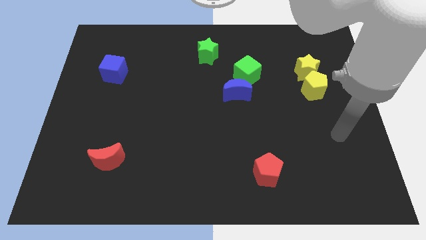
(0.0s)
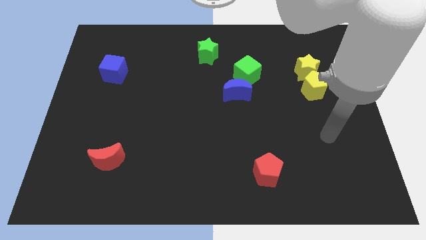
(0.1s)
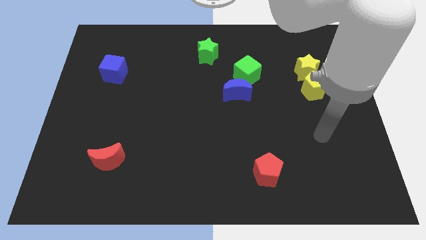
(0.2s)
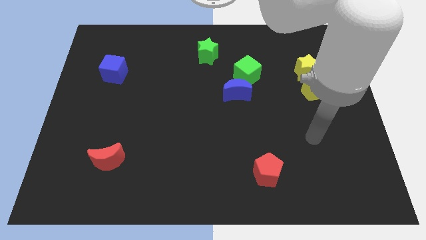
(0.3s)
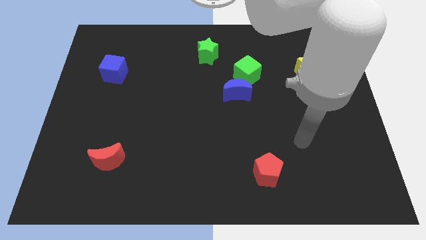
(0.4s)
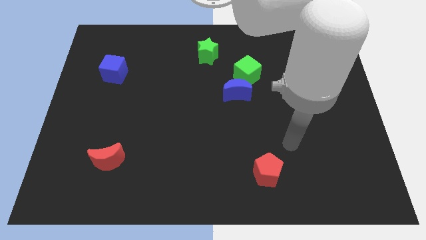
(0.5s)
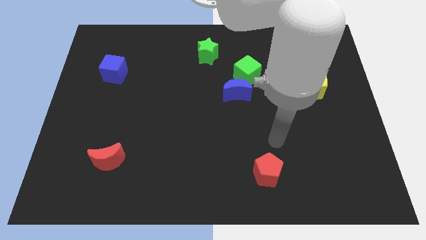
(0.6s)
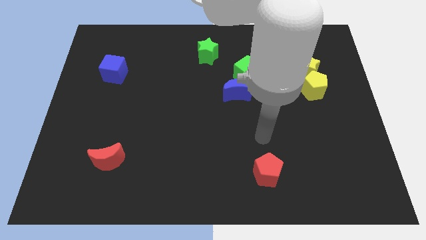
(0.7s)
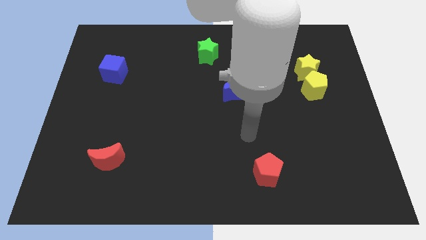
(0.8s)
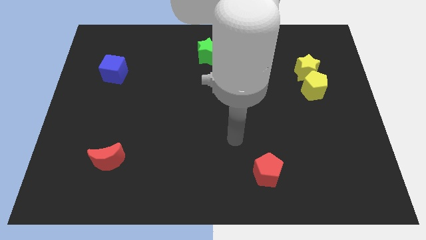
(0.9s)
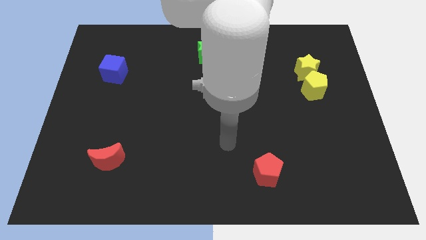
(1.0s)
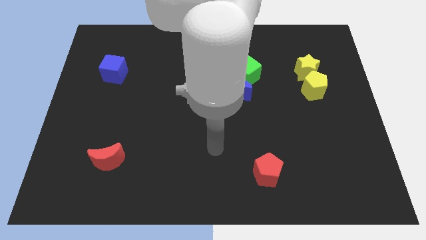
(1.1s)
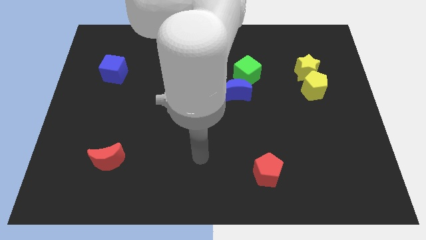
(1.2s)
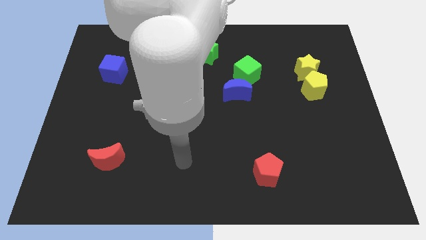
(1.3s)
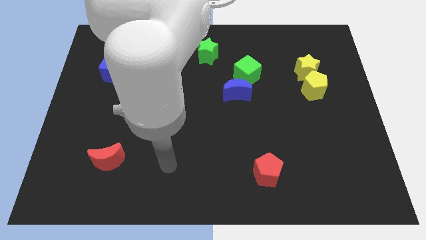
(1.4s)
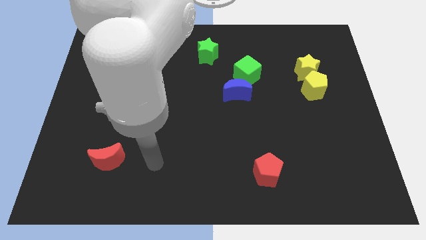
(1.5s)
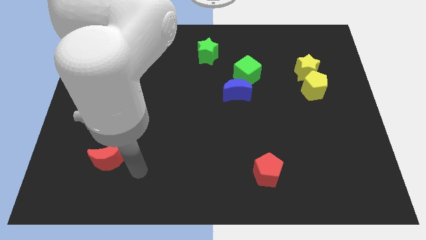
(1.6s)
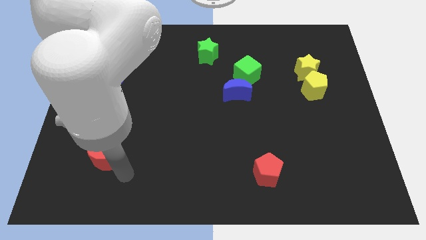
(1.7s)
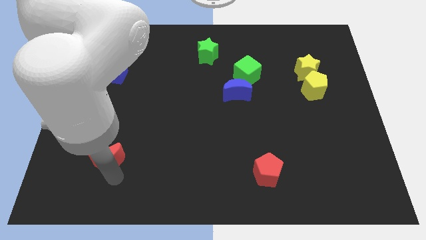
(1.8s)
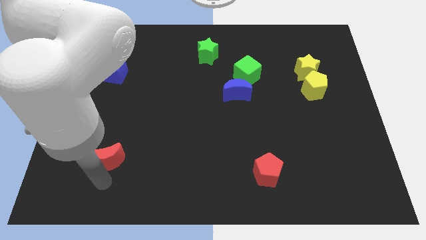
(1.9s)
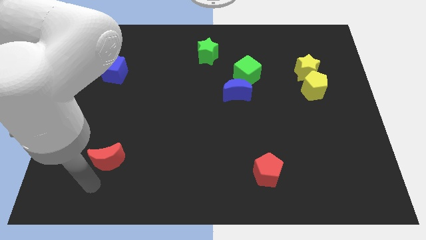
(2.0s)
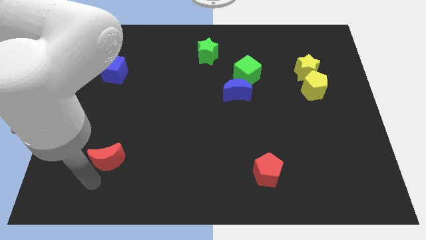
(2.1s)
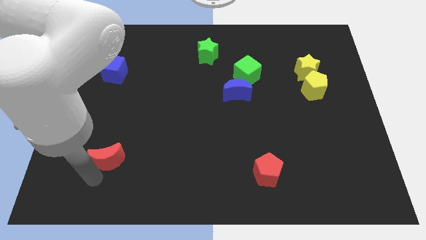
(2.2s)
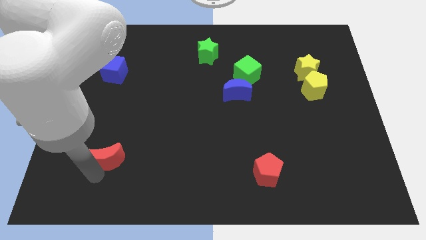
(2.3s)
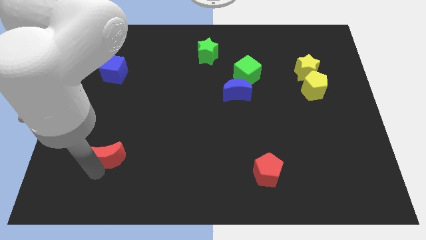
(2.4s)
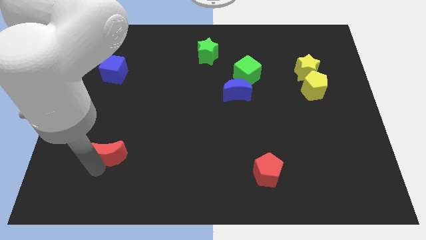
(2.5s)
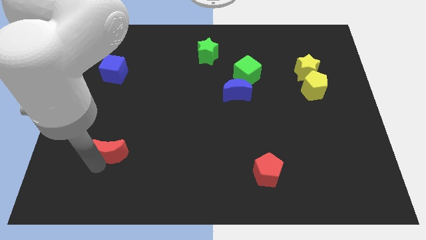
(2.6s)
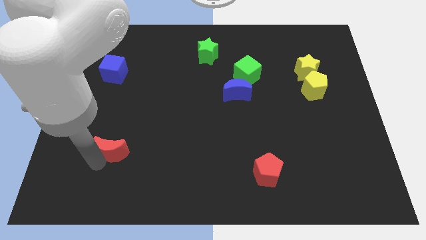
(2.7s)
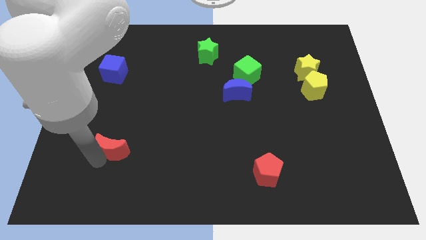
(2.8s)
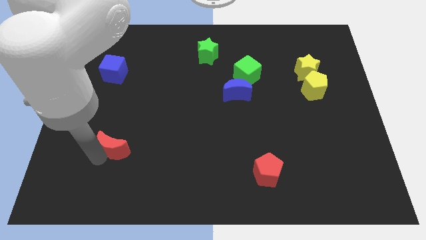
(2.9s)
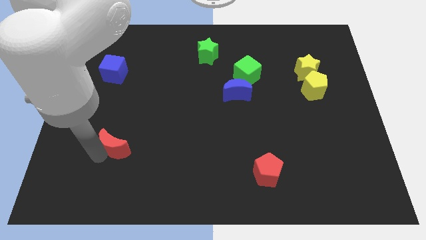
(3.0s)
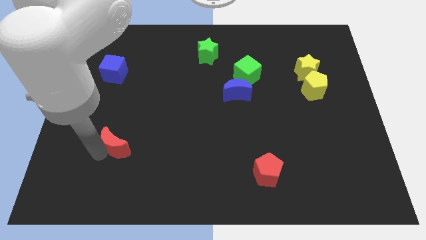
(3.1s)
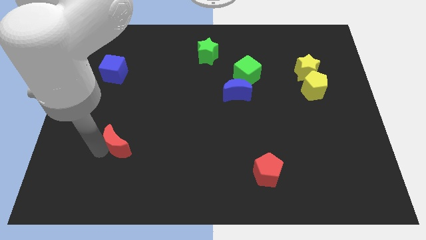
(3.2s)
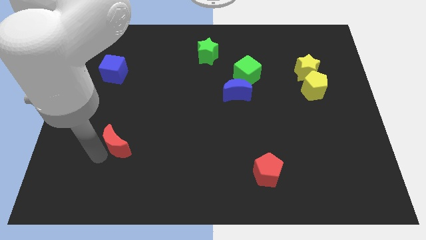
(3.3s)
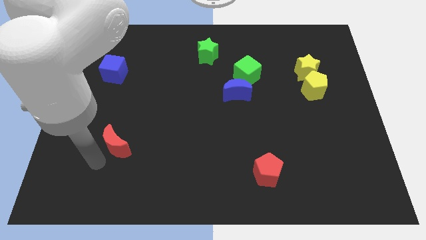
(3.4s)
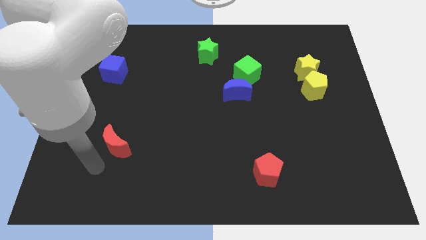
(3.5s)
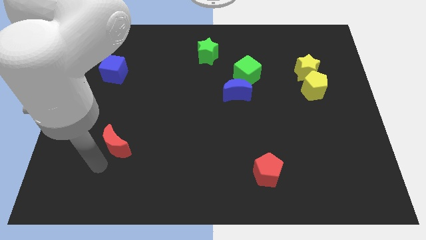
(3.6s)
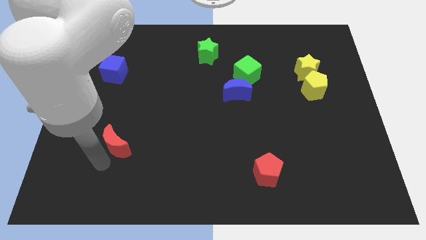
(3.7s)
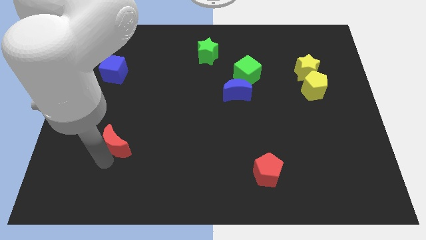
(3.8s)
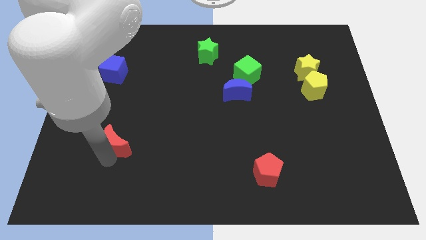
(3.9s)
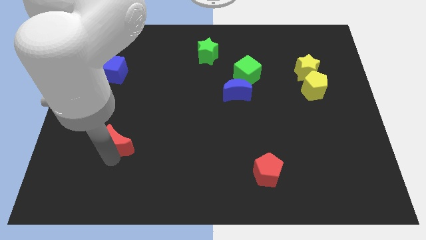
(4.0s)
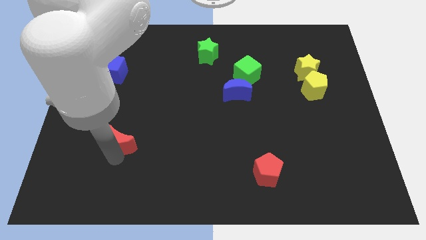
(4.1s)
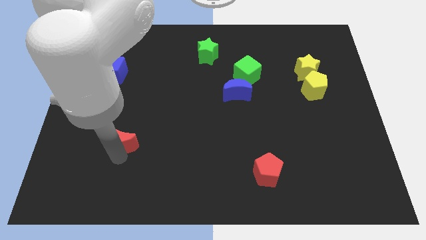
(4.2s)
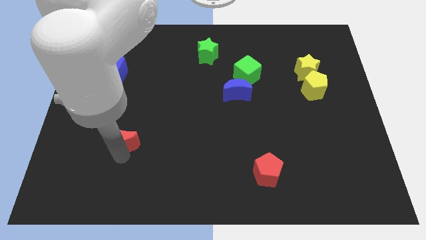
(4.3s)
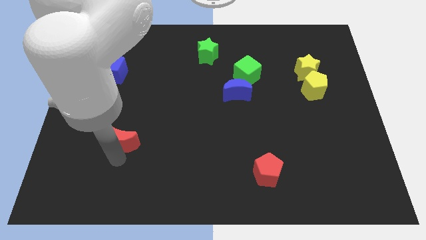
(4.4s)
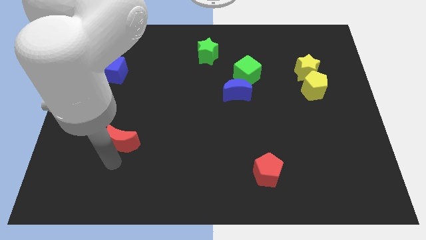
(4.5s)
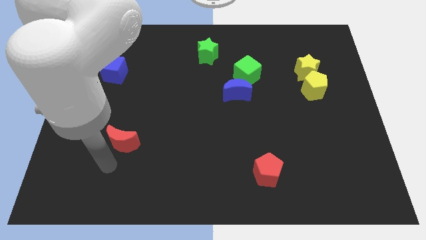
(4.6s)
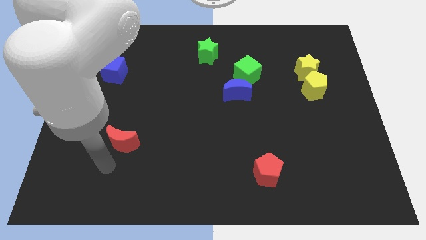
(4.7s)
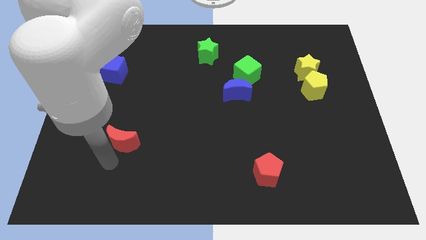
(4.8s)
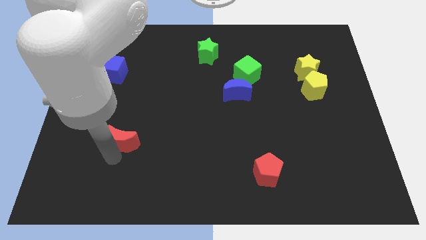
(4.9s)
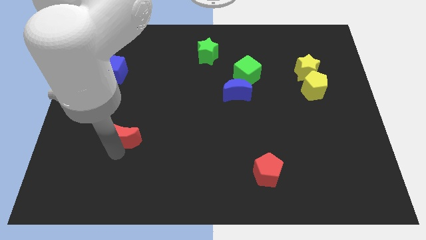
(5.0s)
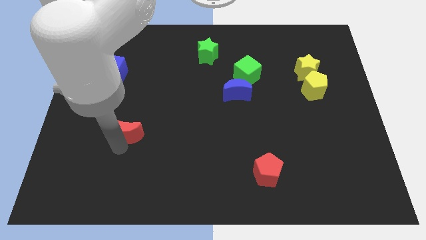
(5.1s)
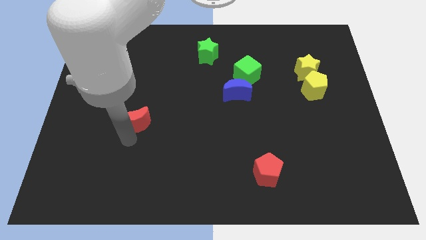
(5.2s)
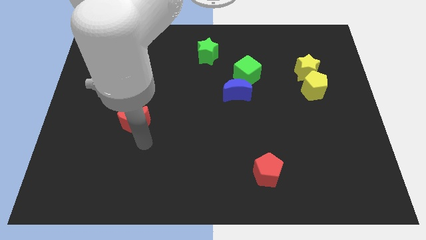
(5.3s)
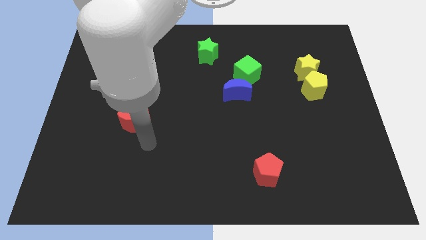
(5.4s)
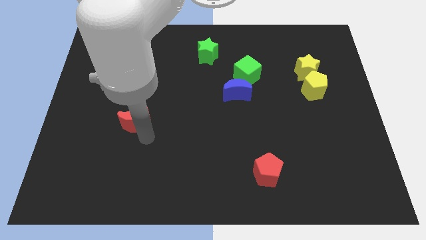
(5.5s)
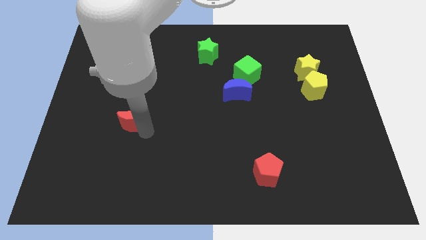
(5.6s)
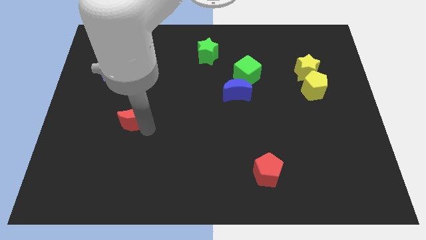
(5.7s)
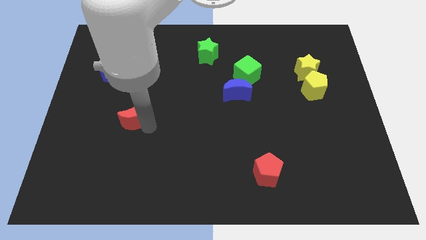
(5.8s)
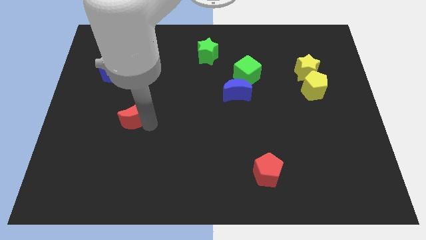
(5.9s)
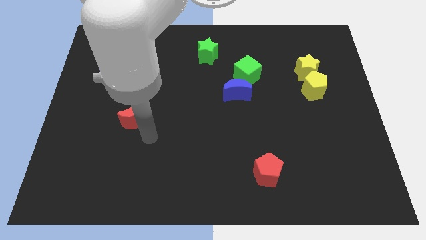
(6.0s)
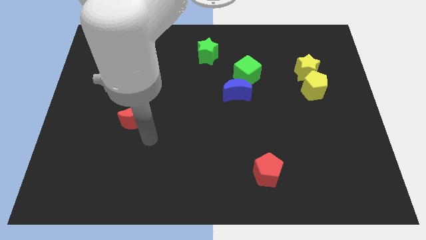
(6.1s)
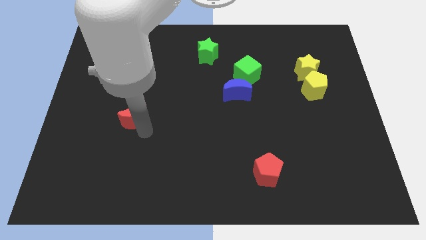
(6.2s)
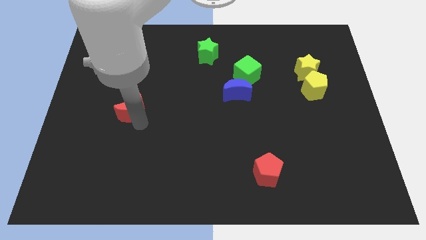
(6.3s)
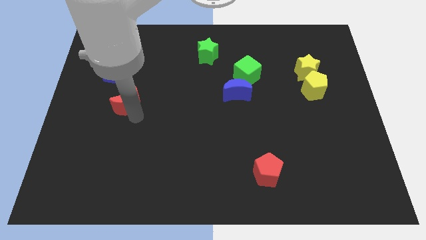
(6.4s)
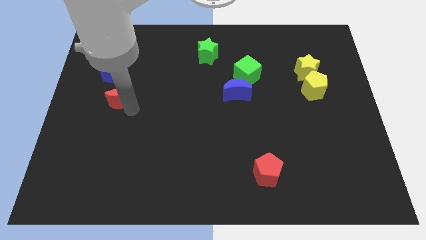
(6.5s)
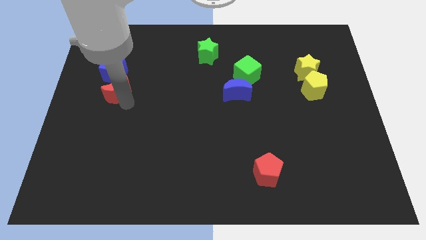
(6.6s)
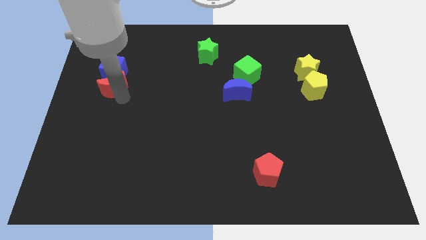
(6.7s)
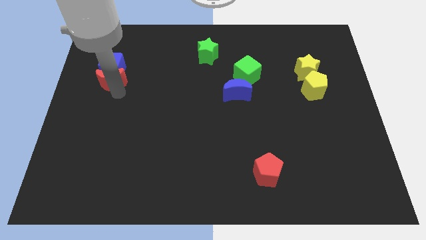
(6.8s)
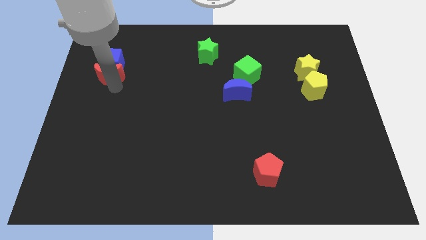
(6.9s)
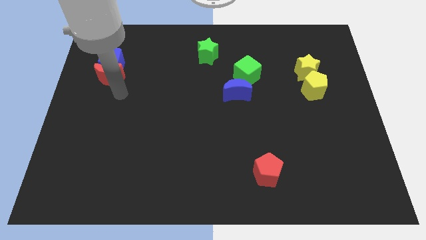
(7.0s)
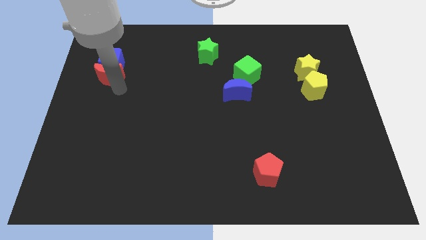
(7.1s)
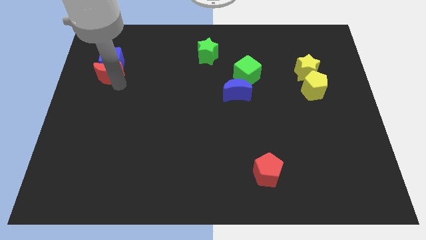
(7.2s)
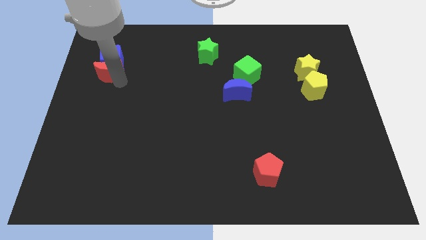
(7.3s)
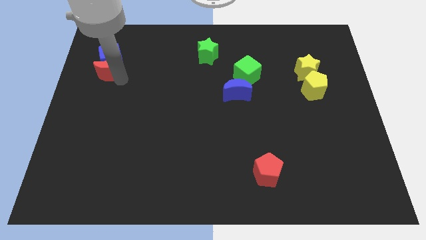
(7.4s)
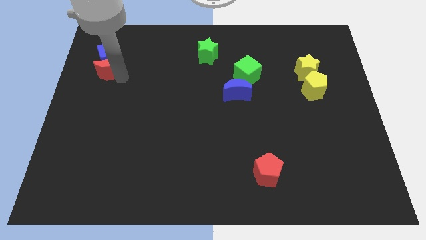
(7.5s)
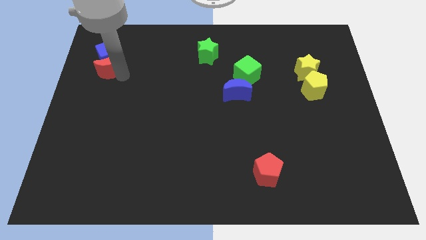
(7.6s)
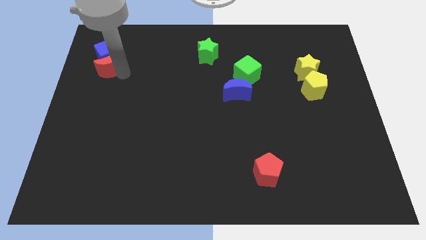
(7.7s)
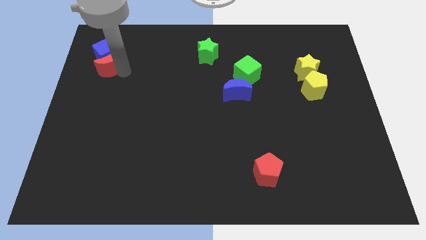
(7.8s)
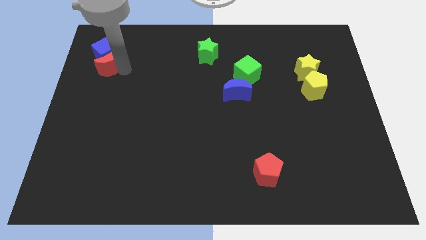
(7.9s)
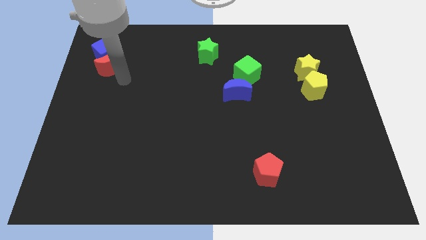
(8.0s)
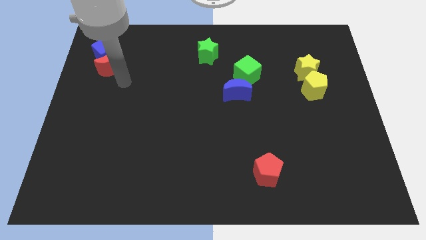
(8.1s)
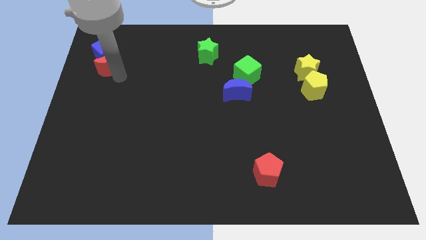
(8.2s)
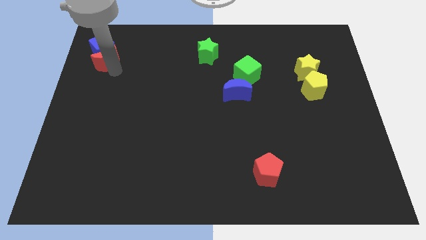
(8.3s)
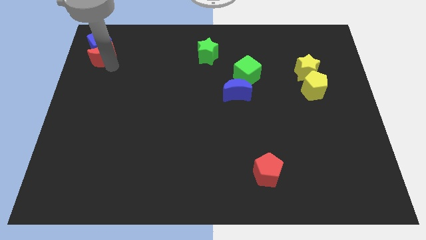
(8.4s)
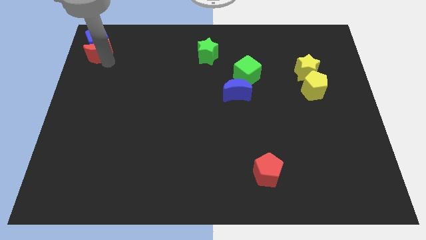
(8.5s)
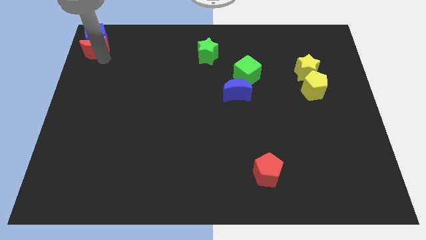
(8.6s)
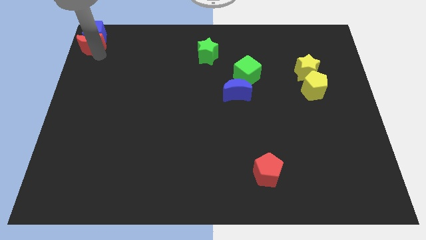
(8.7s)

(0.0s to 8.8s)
push the red moon to the top left corner
